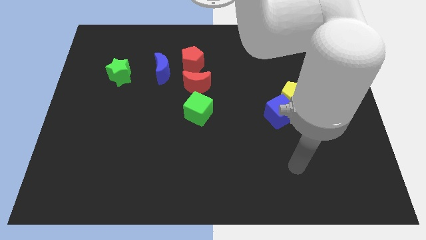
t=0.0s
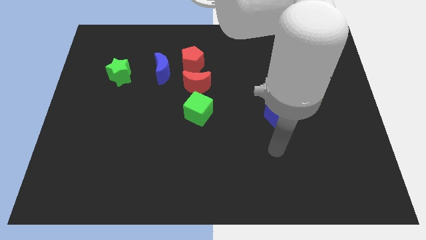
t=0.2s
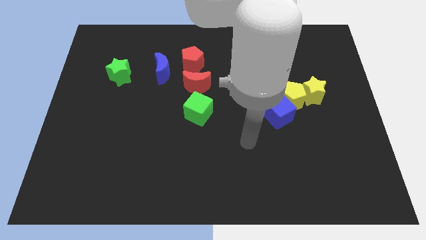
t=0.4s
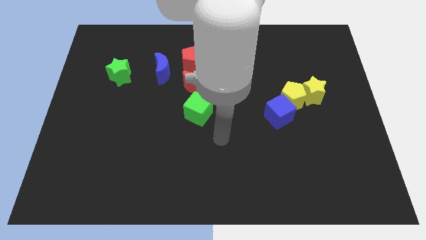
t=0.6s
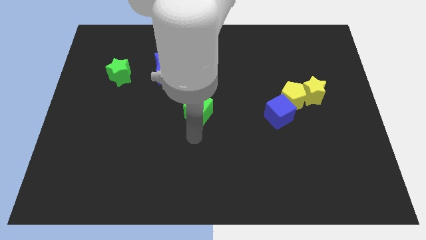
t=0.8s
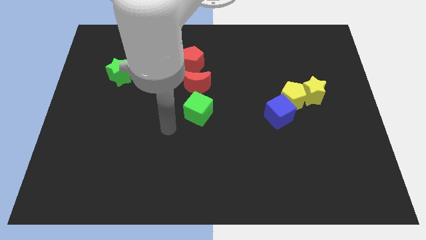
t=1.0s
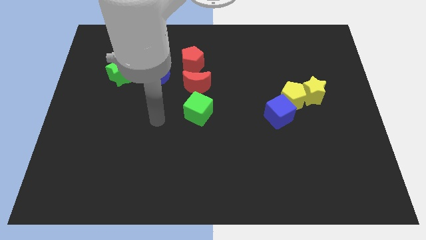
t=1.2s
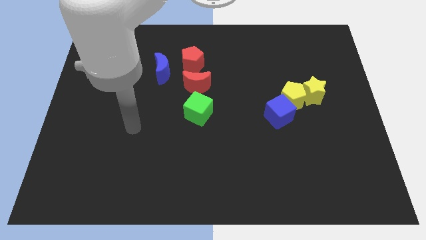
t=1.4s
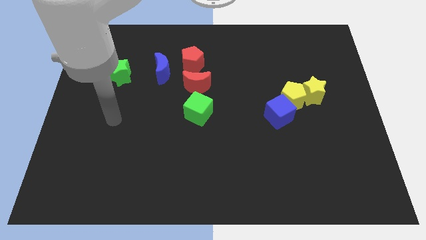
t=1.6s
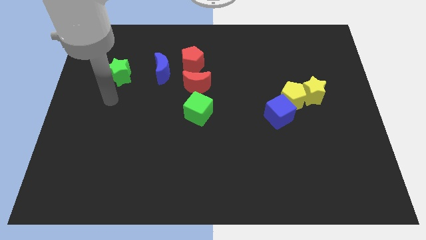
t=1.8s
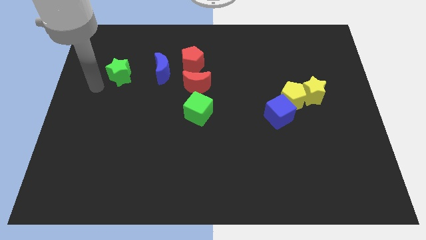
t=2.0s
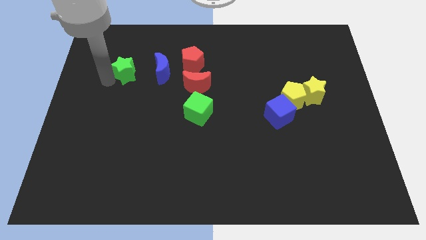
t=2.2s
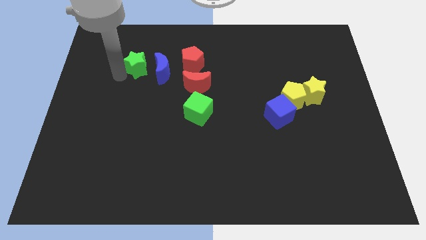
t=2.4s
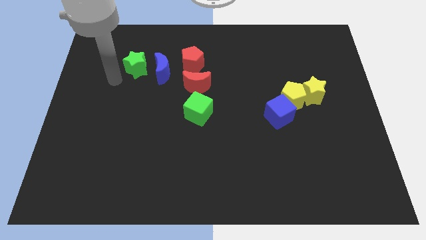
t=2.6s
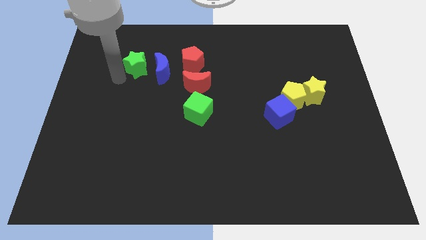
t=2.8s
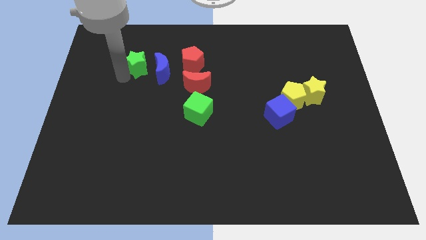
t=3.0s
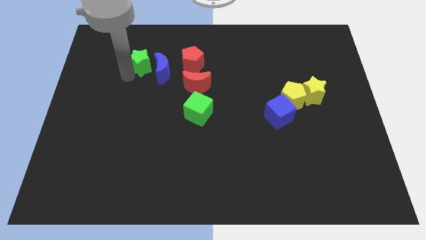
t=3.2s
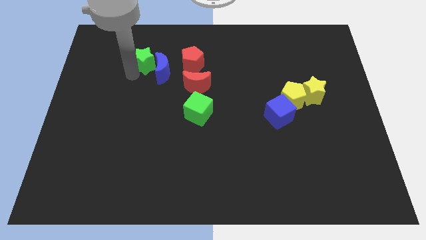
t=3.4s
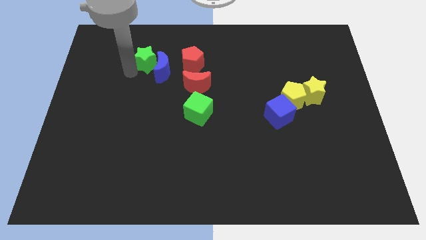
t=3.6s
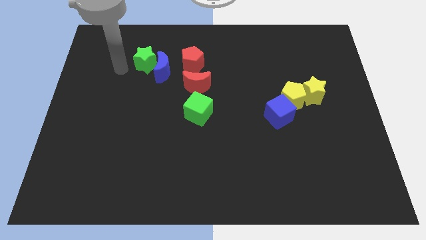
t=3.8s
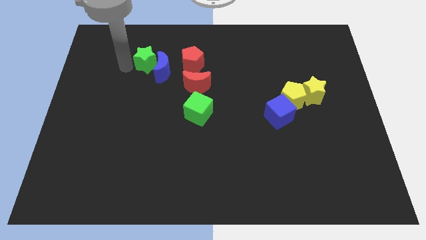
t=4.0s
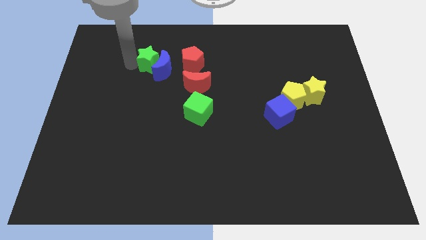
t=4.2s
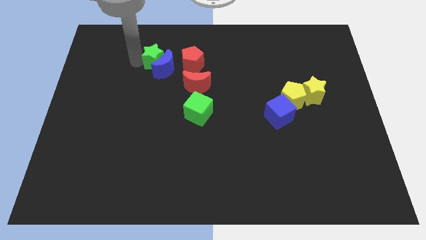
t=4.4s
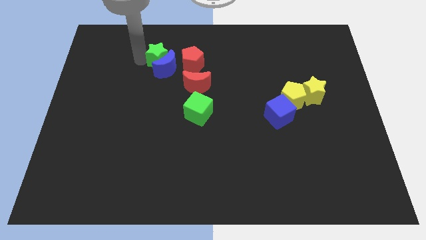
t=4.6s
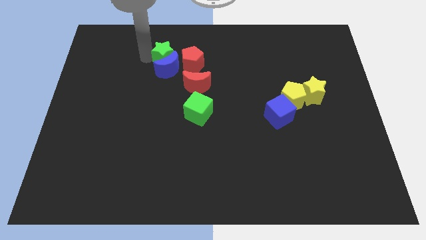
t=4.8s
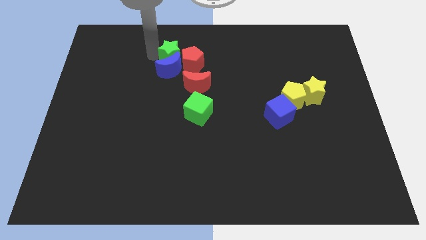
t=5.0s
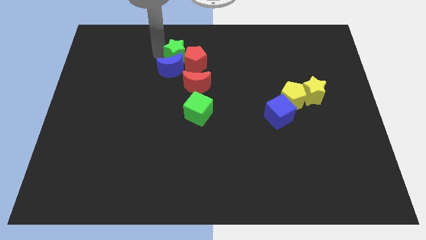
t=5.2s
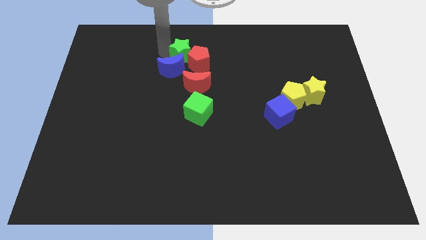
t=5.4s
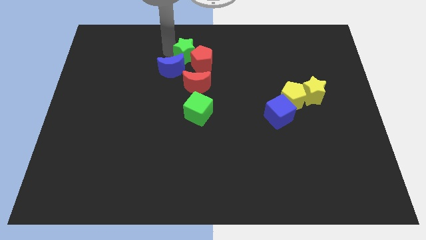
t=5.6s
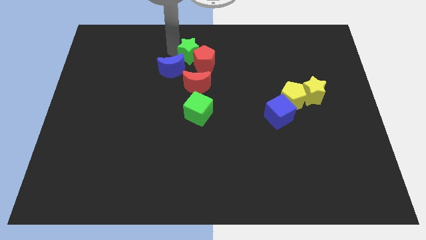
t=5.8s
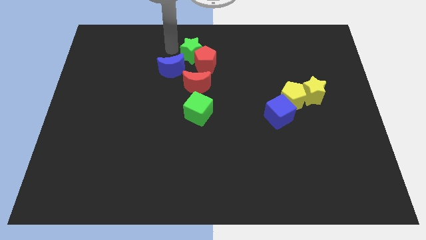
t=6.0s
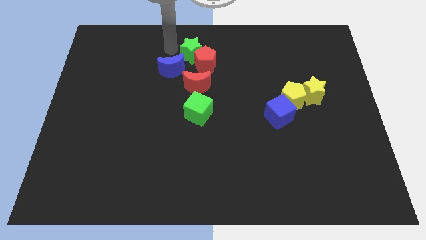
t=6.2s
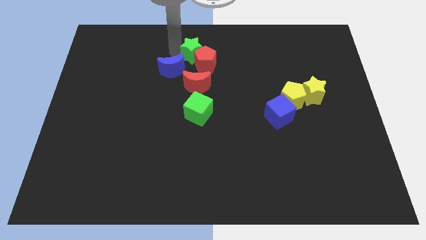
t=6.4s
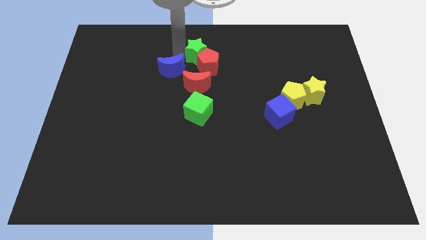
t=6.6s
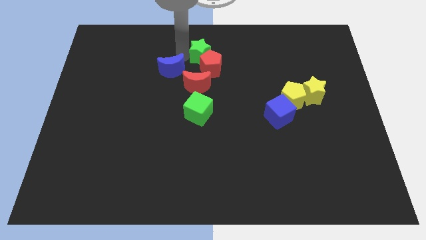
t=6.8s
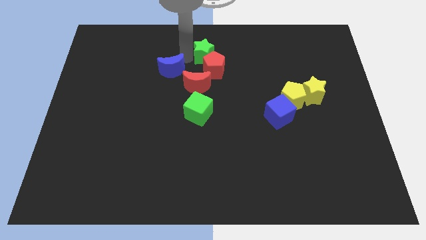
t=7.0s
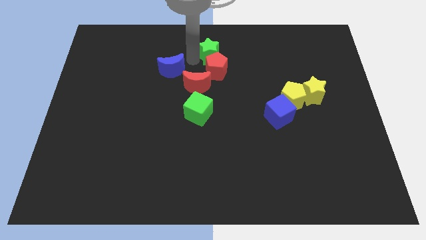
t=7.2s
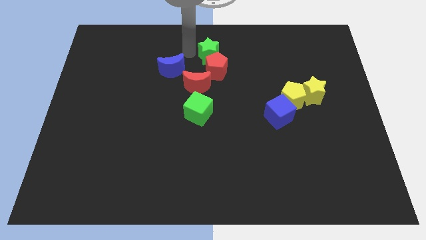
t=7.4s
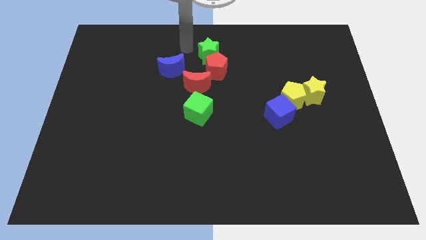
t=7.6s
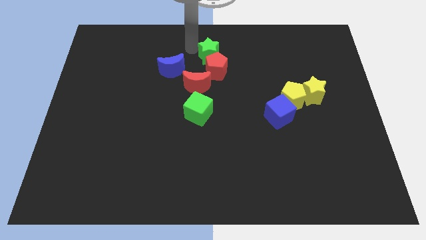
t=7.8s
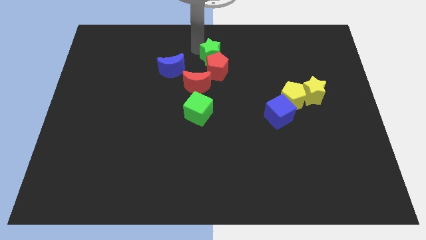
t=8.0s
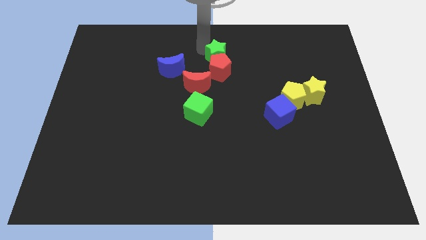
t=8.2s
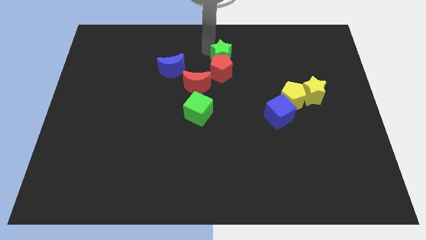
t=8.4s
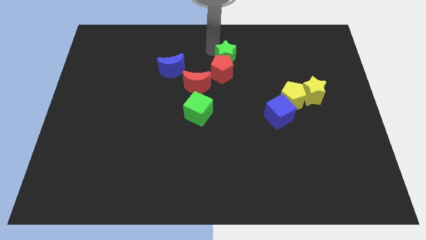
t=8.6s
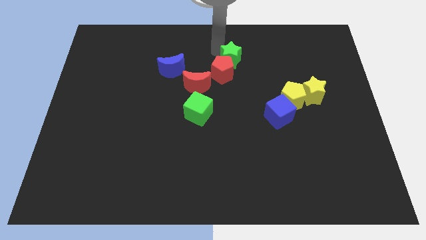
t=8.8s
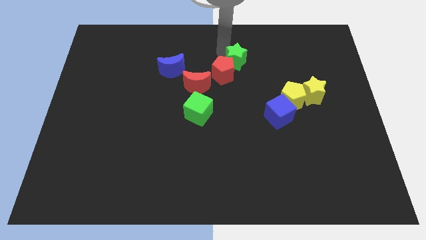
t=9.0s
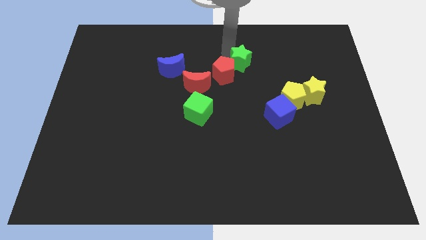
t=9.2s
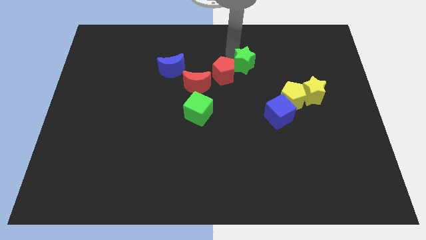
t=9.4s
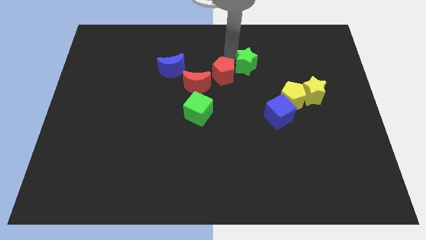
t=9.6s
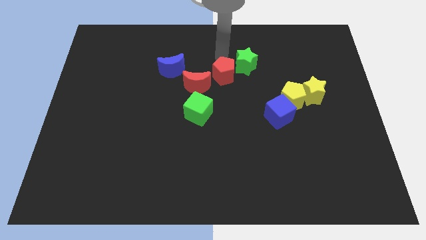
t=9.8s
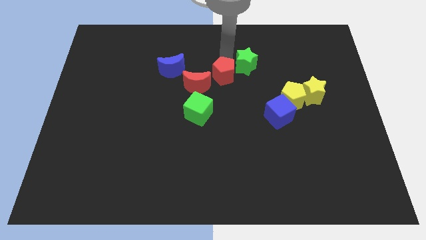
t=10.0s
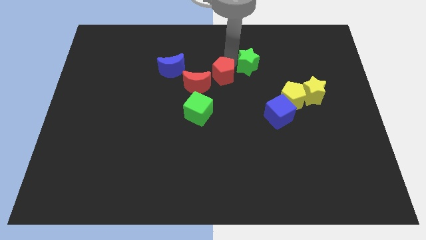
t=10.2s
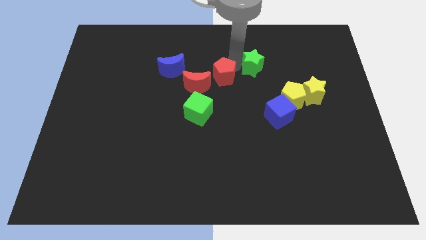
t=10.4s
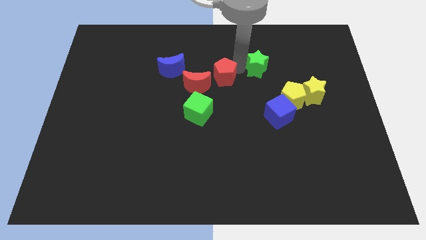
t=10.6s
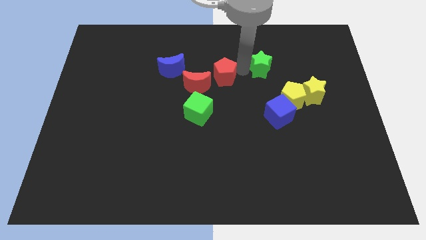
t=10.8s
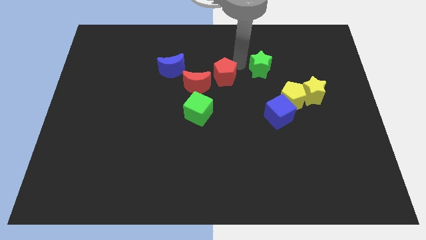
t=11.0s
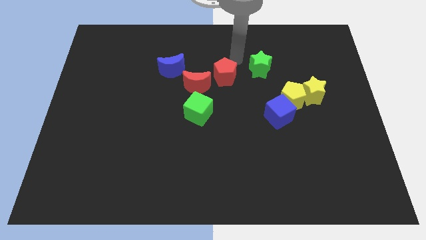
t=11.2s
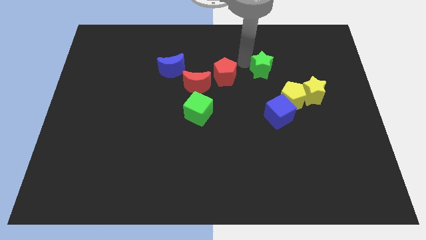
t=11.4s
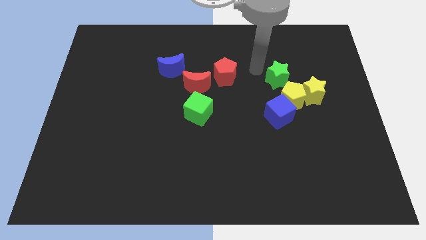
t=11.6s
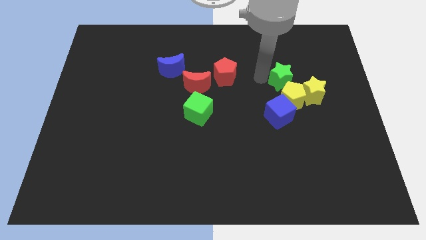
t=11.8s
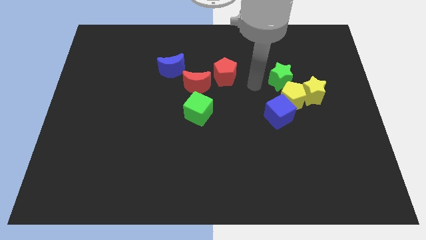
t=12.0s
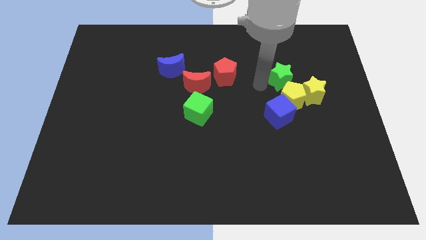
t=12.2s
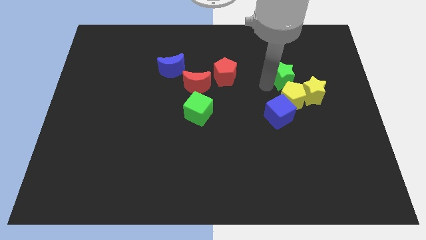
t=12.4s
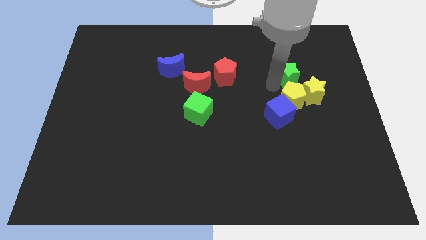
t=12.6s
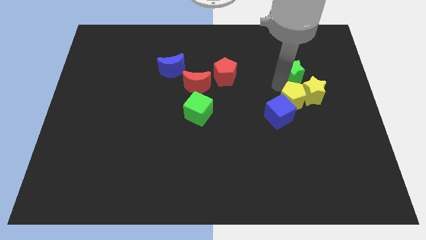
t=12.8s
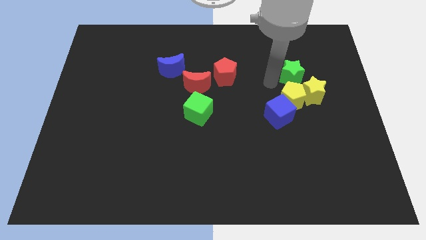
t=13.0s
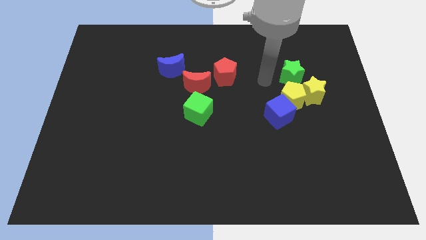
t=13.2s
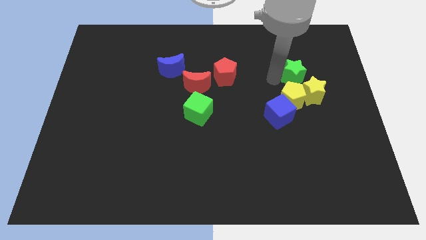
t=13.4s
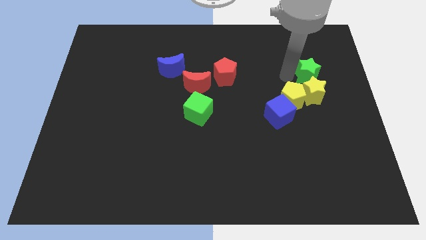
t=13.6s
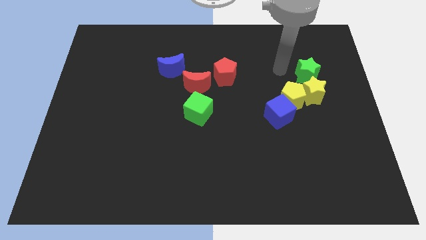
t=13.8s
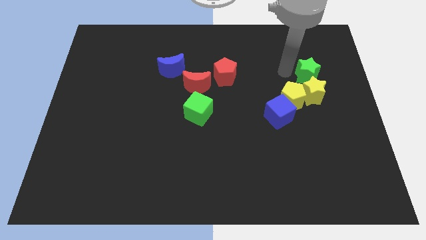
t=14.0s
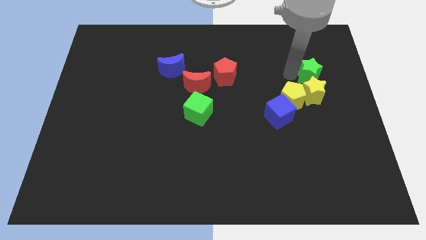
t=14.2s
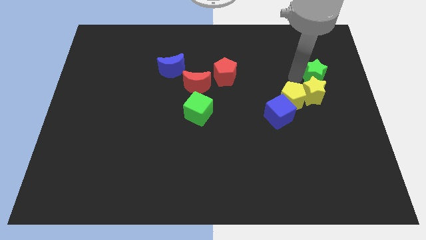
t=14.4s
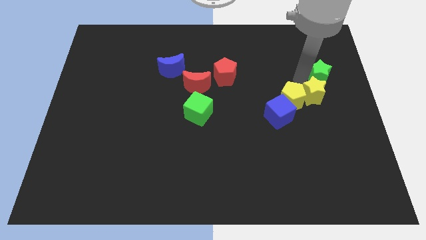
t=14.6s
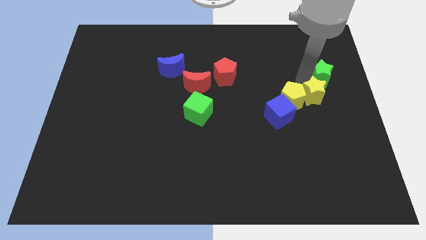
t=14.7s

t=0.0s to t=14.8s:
move the green star to the right side of the board
